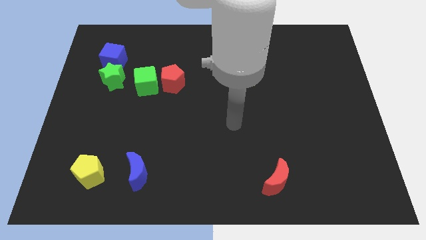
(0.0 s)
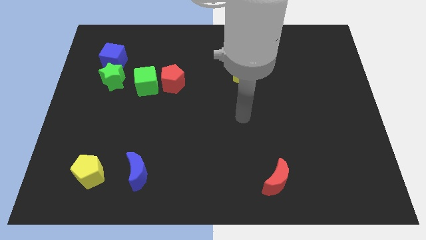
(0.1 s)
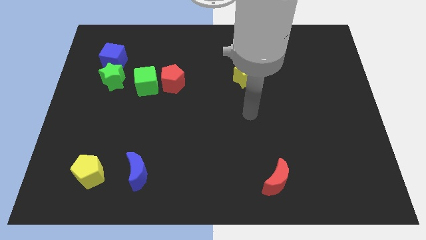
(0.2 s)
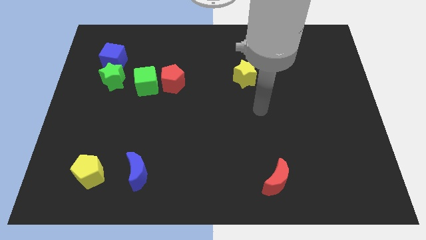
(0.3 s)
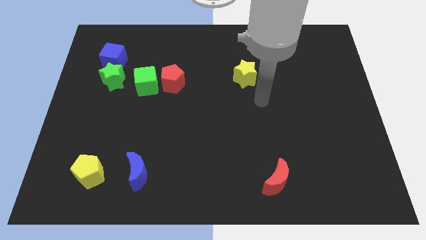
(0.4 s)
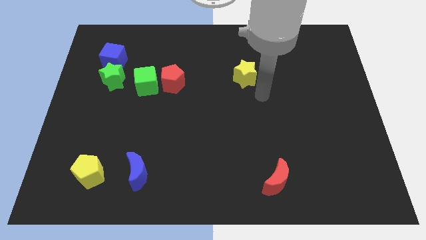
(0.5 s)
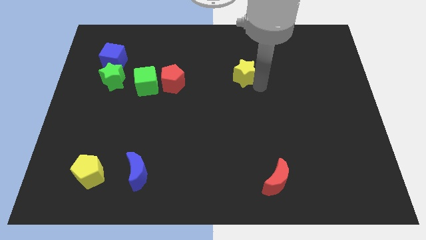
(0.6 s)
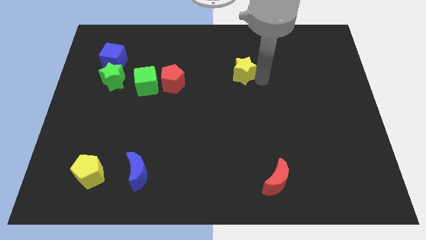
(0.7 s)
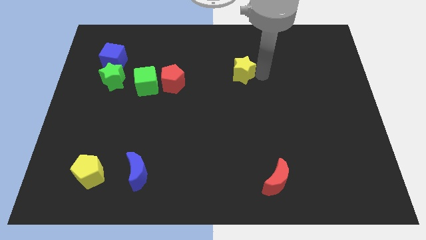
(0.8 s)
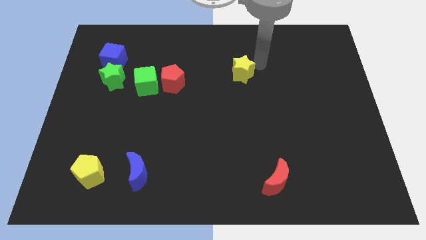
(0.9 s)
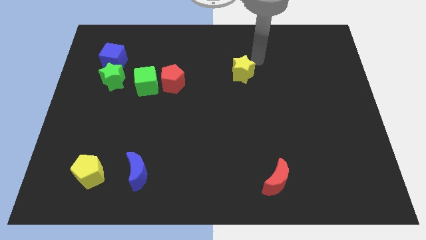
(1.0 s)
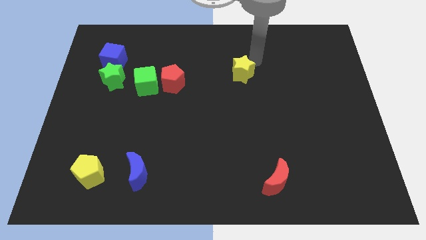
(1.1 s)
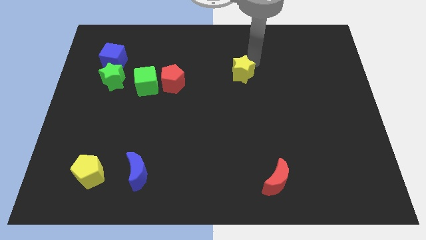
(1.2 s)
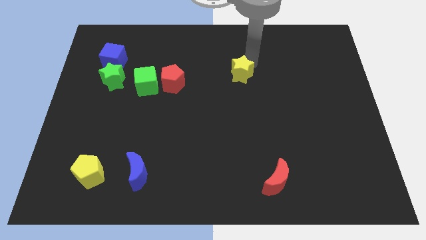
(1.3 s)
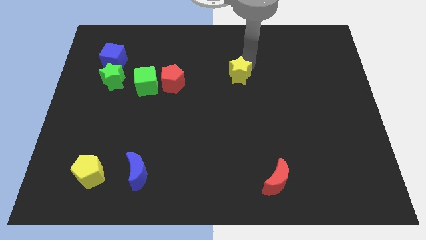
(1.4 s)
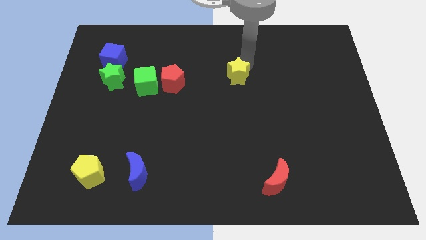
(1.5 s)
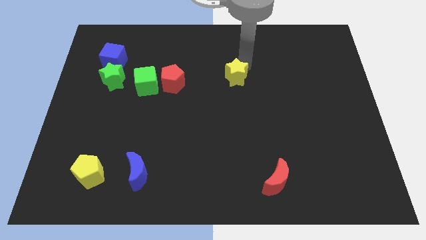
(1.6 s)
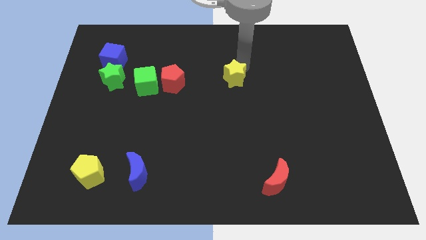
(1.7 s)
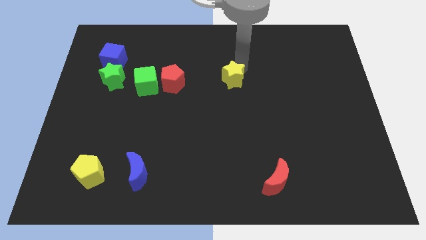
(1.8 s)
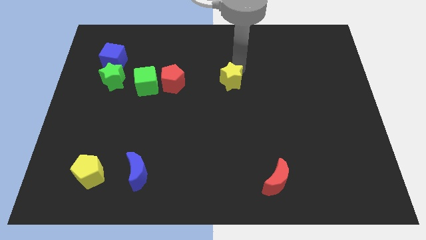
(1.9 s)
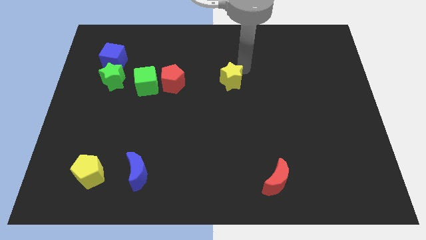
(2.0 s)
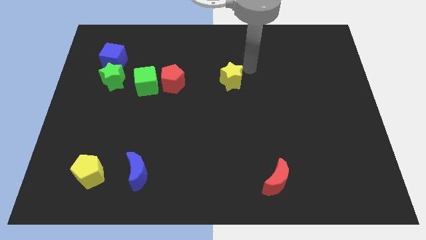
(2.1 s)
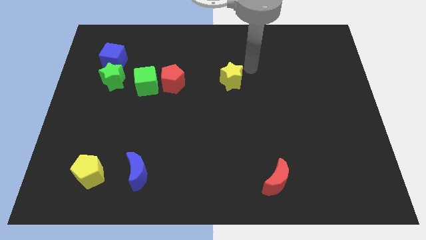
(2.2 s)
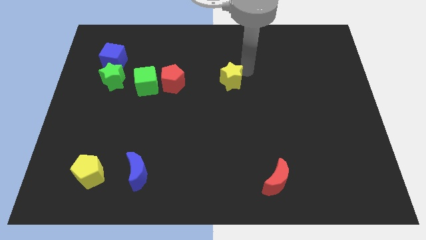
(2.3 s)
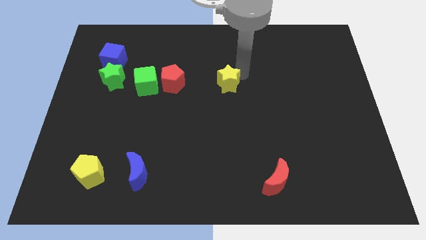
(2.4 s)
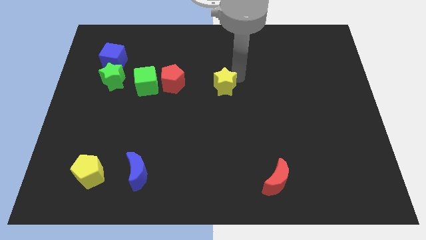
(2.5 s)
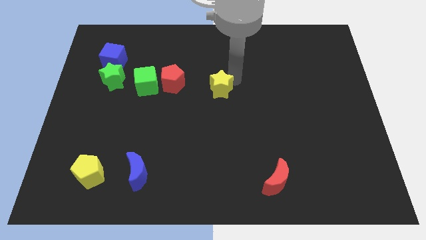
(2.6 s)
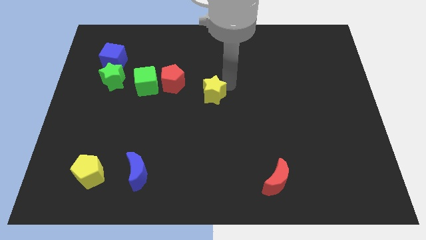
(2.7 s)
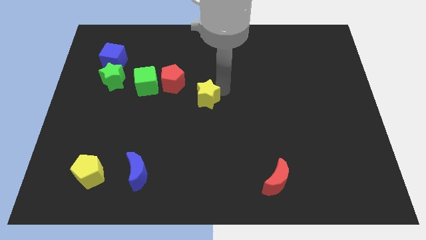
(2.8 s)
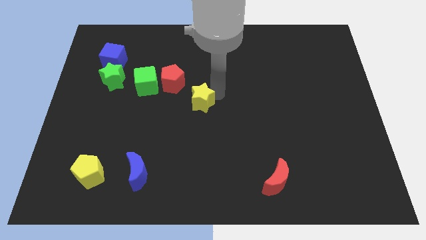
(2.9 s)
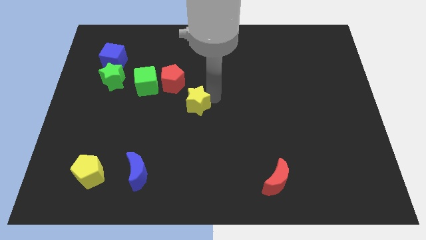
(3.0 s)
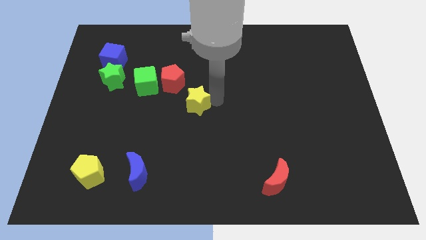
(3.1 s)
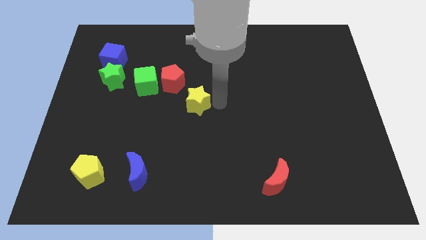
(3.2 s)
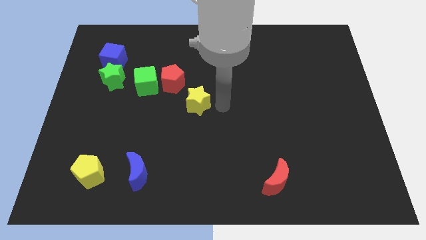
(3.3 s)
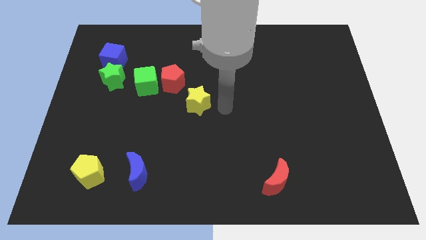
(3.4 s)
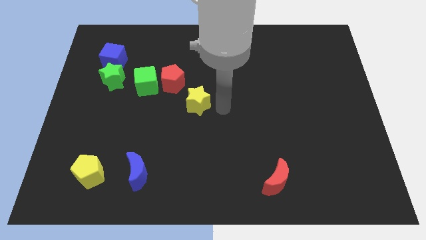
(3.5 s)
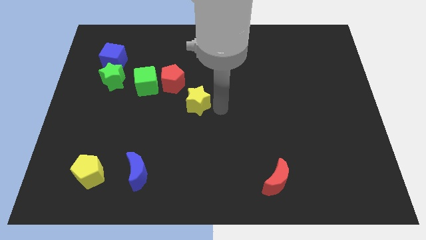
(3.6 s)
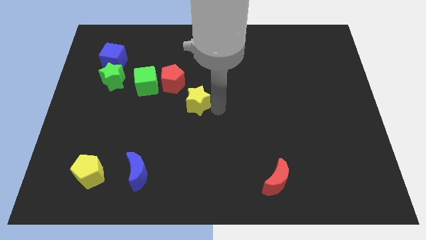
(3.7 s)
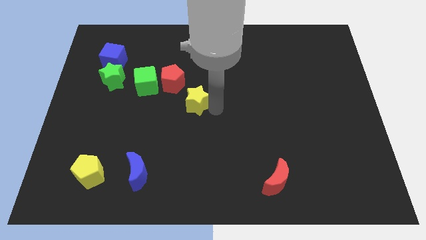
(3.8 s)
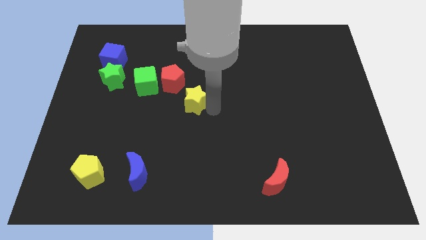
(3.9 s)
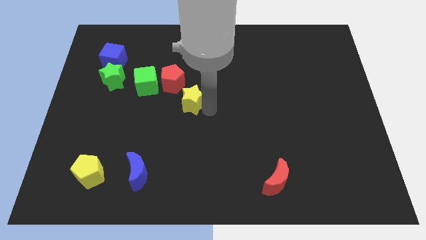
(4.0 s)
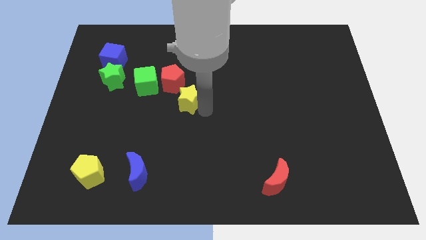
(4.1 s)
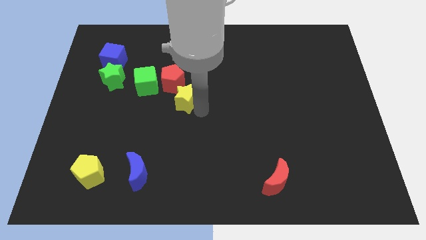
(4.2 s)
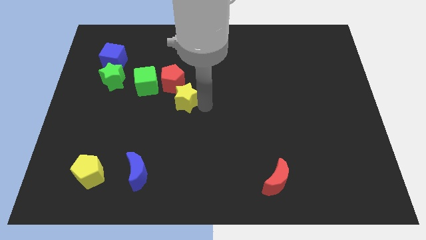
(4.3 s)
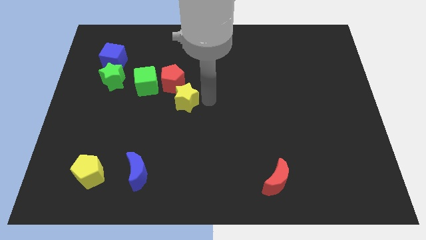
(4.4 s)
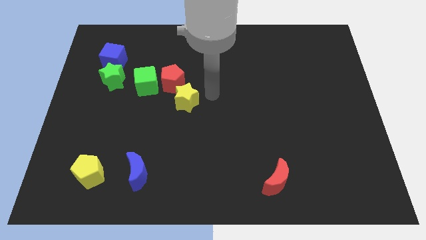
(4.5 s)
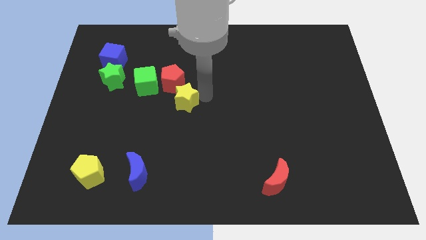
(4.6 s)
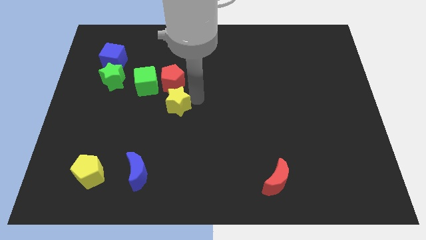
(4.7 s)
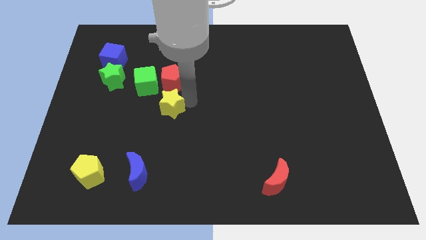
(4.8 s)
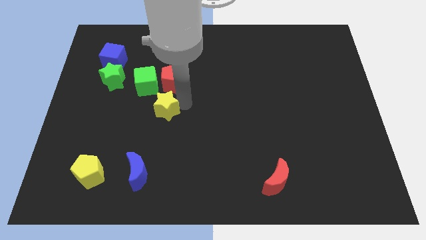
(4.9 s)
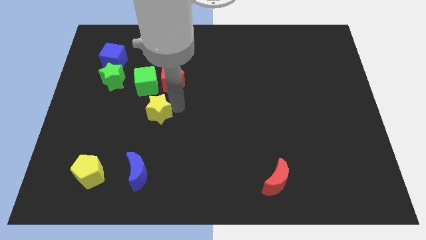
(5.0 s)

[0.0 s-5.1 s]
put the yellow star to the bottom of the green cube

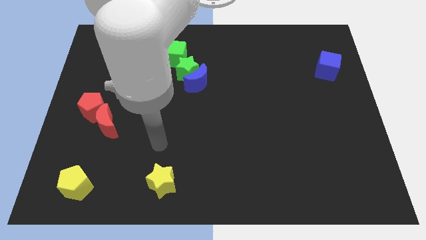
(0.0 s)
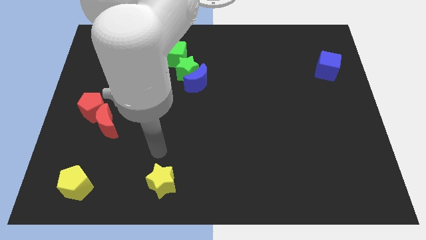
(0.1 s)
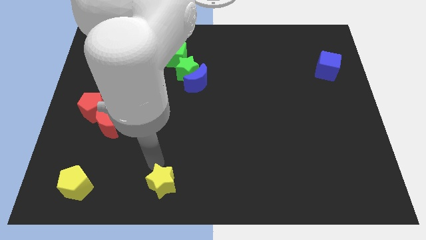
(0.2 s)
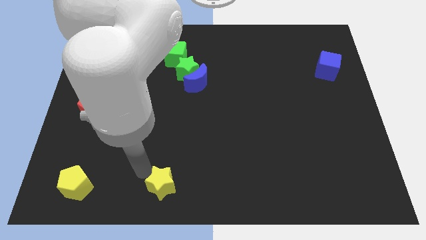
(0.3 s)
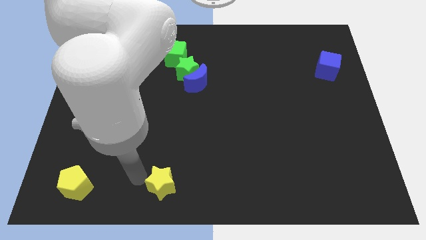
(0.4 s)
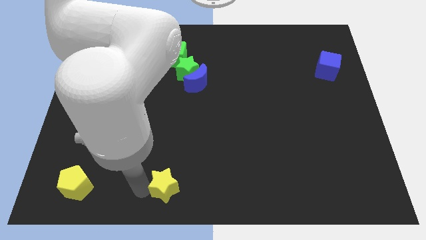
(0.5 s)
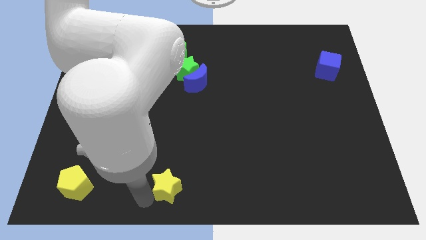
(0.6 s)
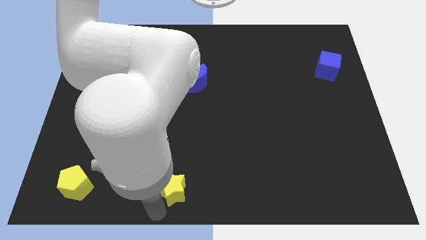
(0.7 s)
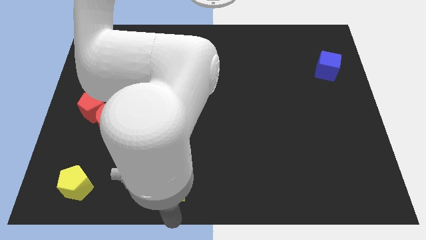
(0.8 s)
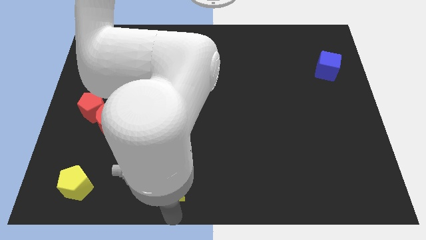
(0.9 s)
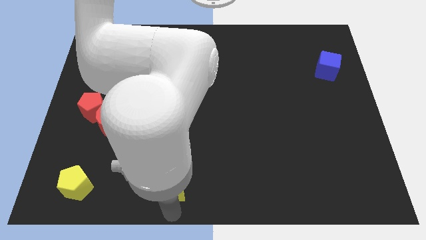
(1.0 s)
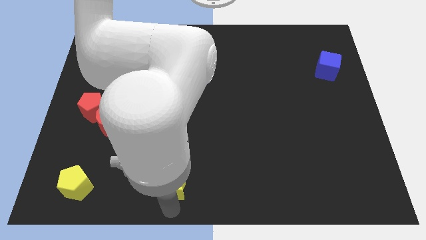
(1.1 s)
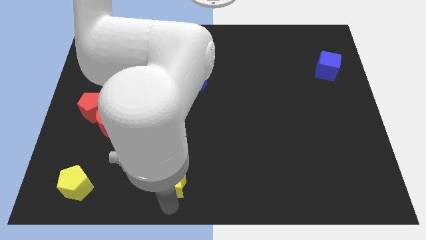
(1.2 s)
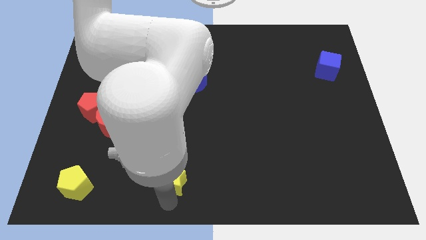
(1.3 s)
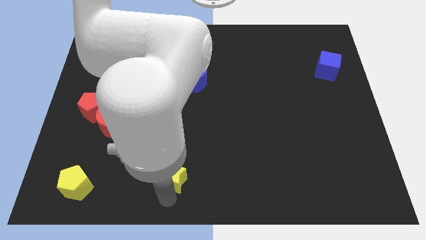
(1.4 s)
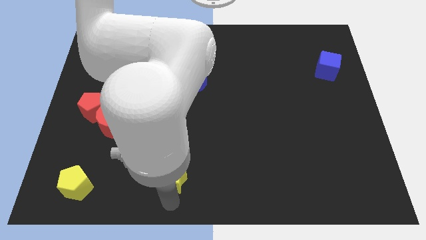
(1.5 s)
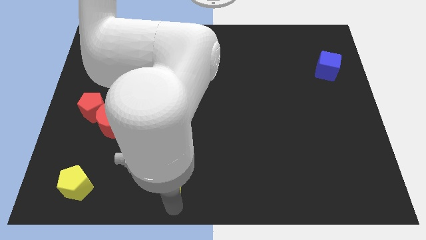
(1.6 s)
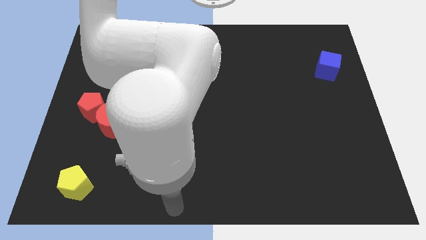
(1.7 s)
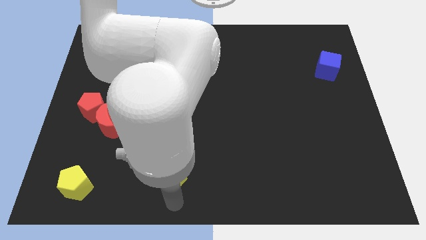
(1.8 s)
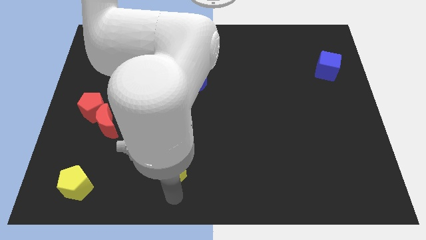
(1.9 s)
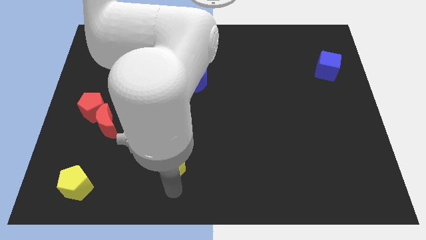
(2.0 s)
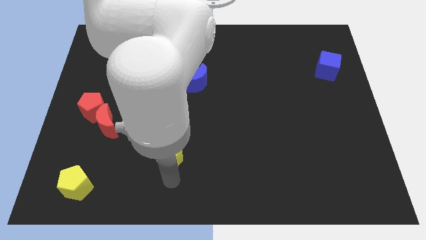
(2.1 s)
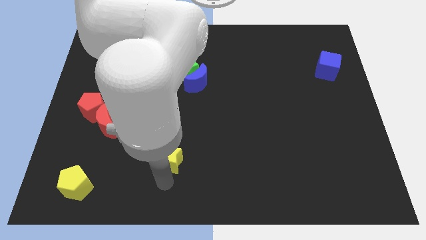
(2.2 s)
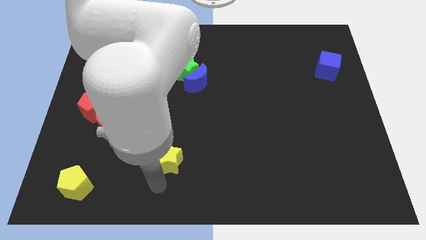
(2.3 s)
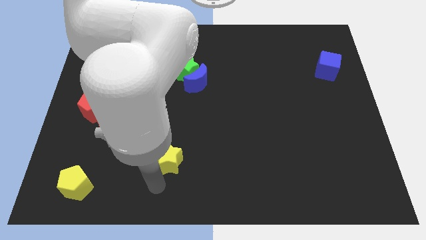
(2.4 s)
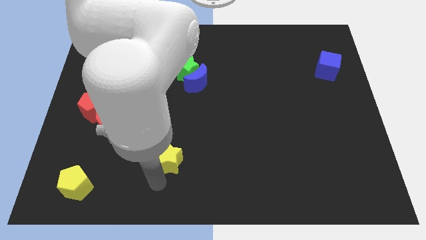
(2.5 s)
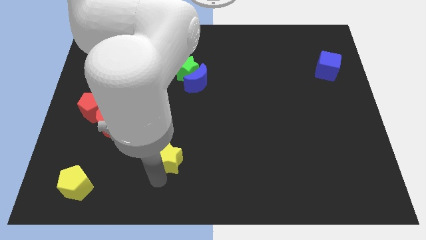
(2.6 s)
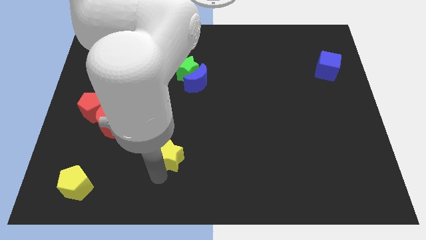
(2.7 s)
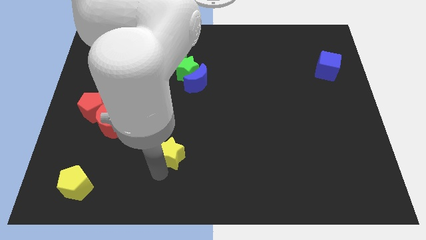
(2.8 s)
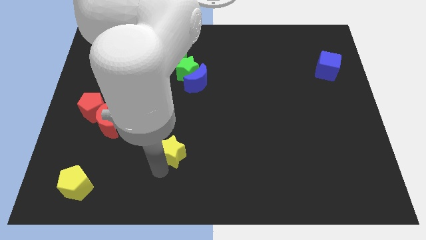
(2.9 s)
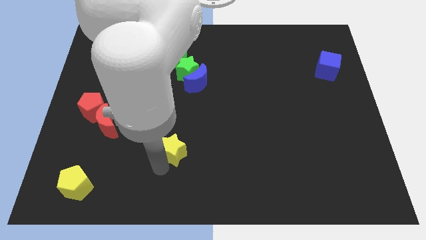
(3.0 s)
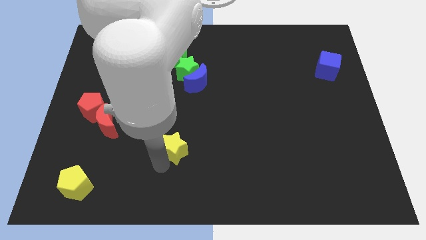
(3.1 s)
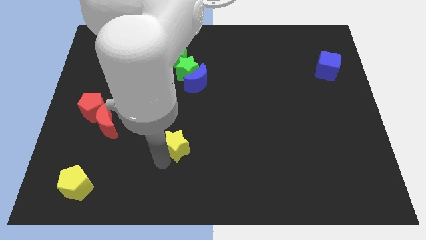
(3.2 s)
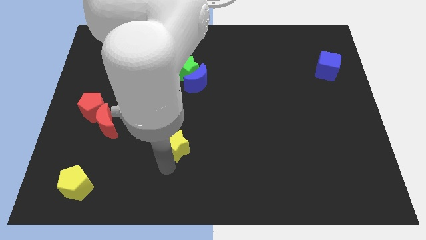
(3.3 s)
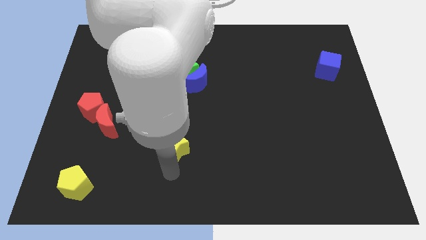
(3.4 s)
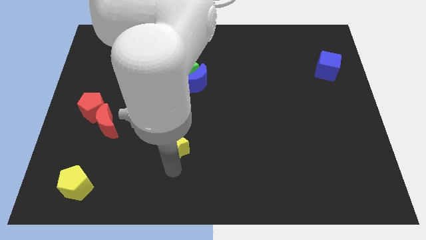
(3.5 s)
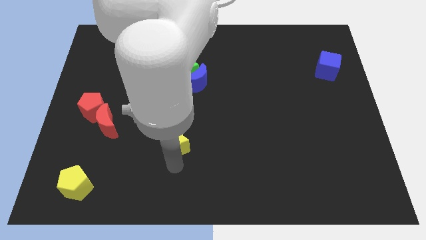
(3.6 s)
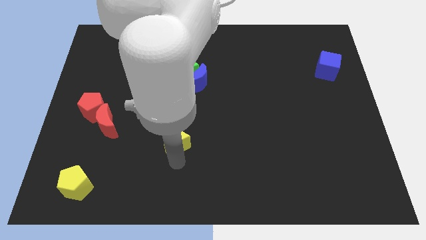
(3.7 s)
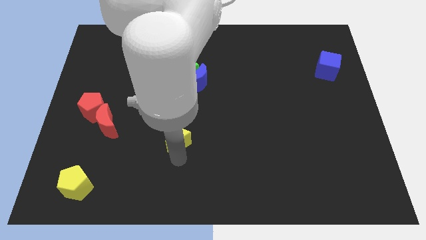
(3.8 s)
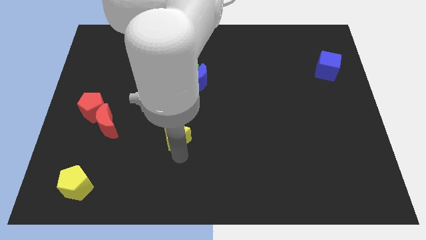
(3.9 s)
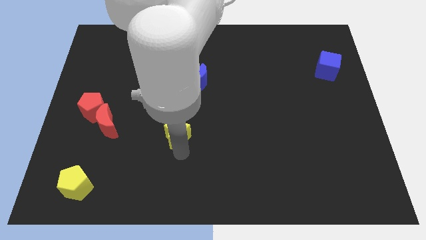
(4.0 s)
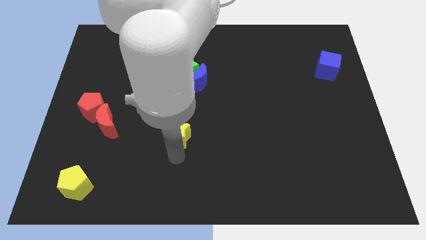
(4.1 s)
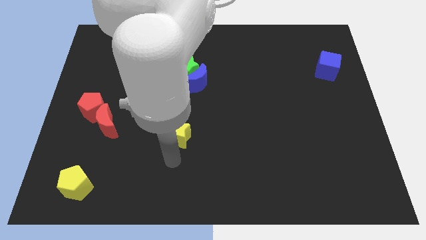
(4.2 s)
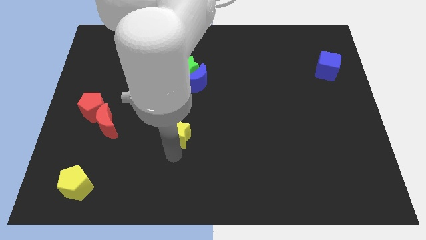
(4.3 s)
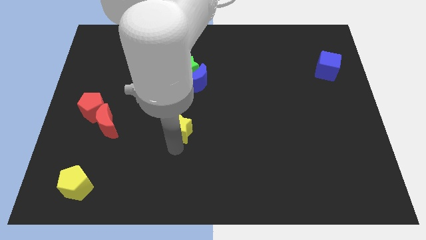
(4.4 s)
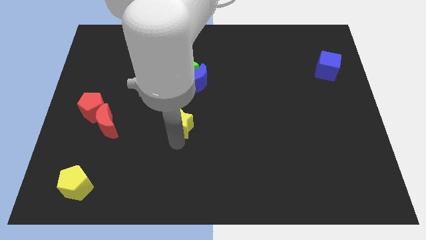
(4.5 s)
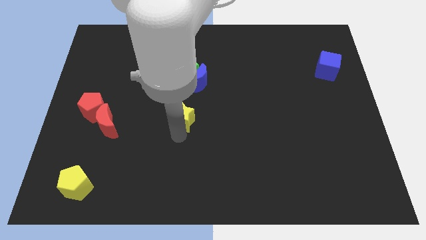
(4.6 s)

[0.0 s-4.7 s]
put the yellow star below the green star
